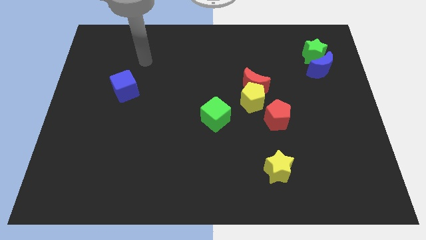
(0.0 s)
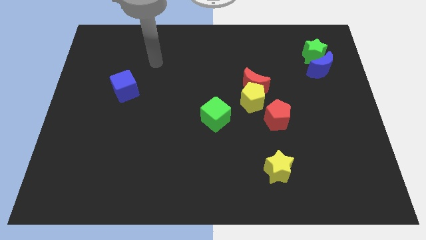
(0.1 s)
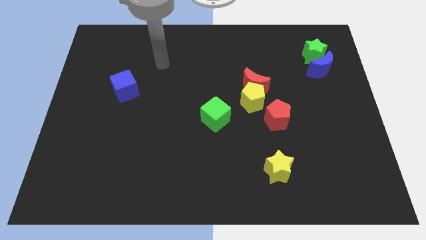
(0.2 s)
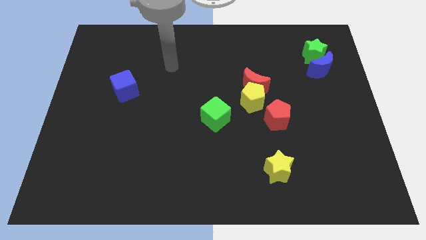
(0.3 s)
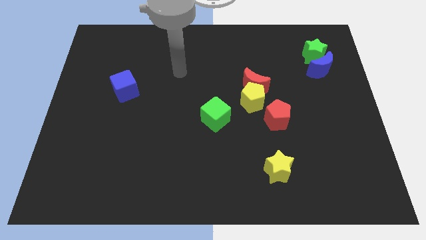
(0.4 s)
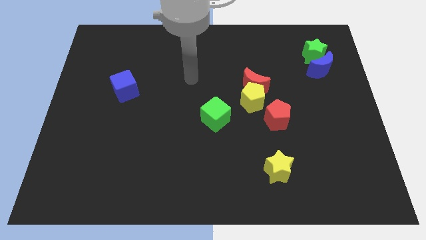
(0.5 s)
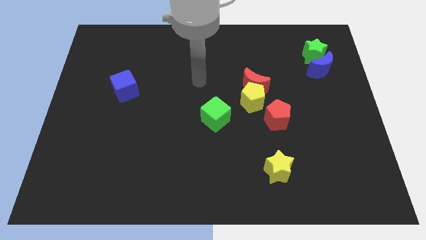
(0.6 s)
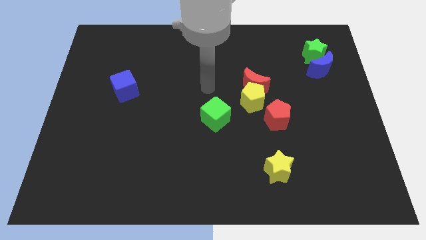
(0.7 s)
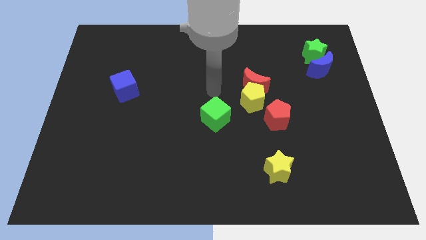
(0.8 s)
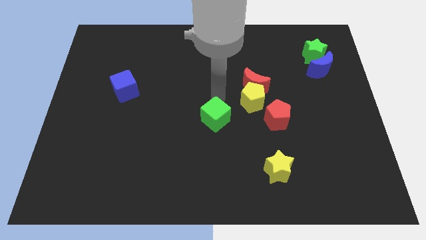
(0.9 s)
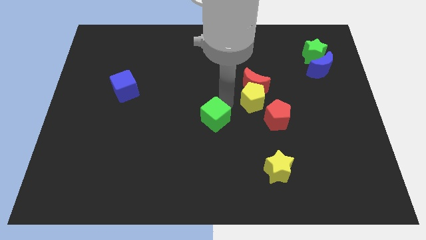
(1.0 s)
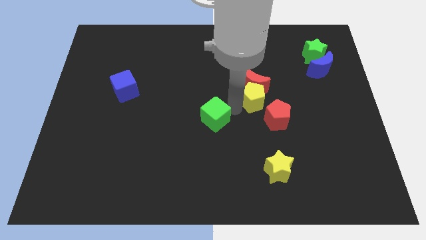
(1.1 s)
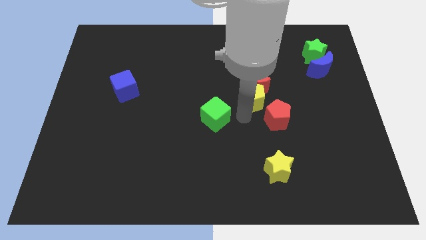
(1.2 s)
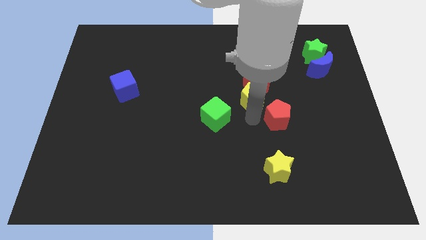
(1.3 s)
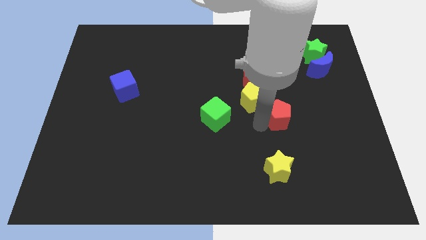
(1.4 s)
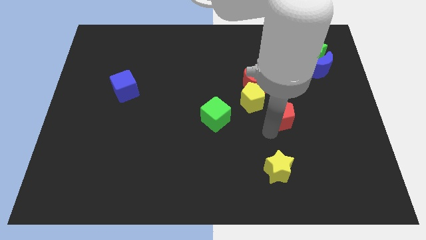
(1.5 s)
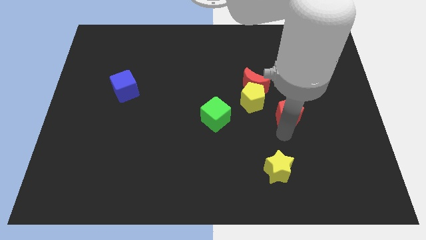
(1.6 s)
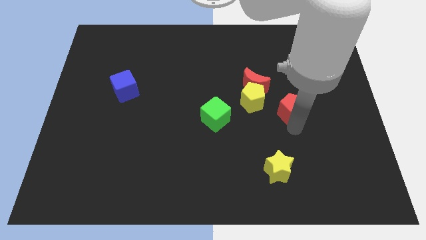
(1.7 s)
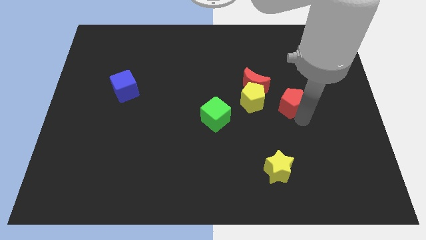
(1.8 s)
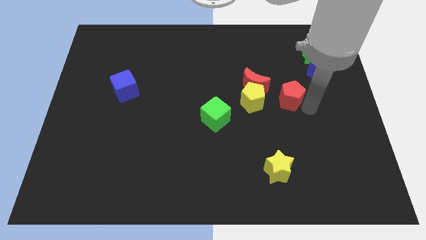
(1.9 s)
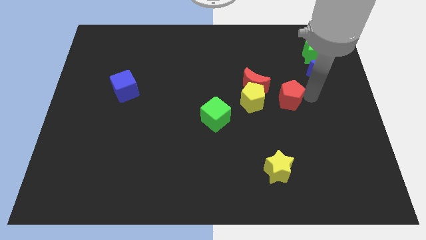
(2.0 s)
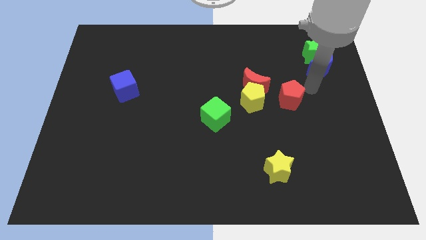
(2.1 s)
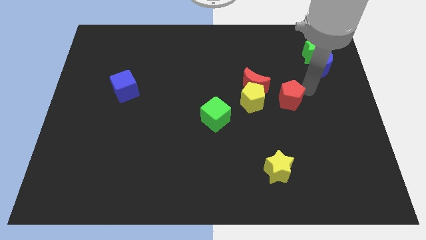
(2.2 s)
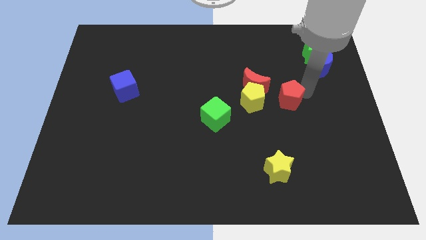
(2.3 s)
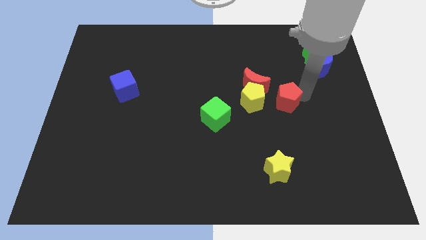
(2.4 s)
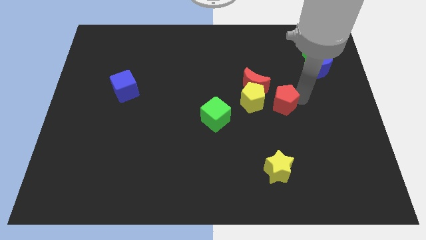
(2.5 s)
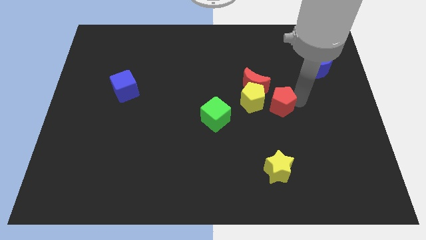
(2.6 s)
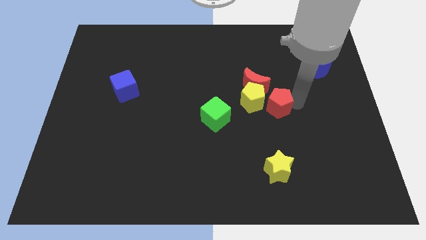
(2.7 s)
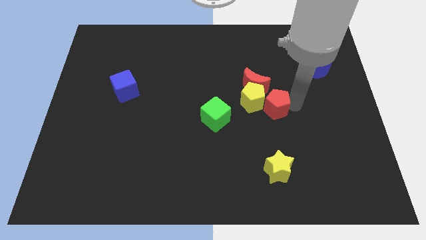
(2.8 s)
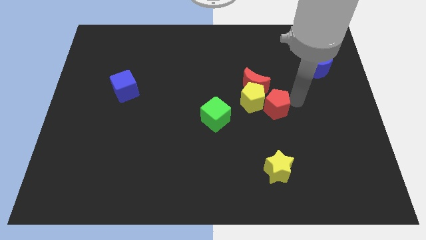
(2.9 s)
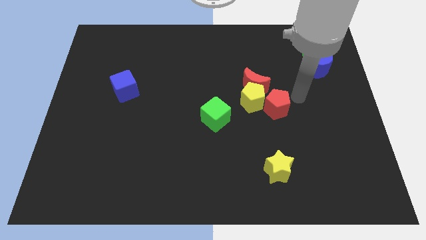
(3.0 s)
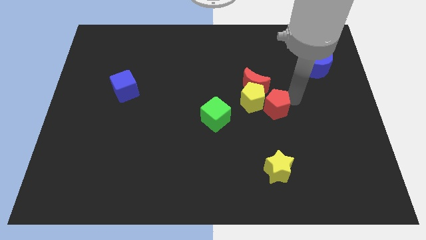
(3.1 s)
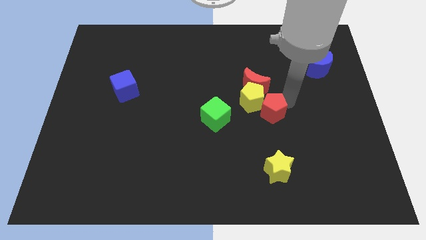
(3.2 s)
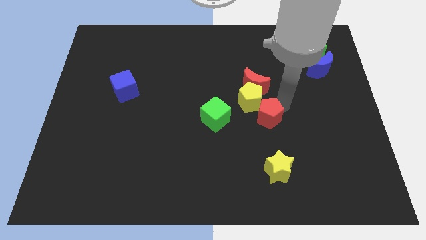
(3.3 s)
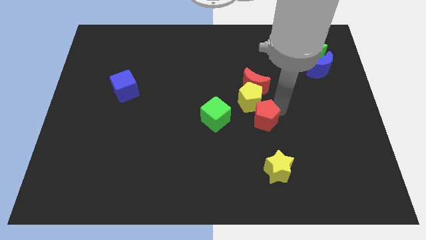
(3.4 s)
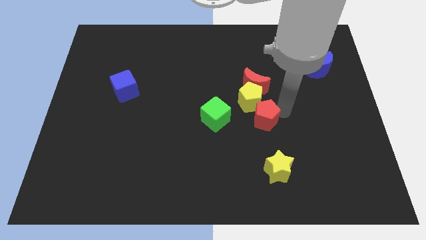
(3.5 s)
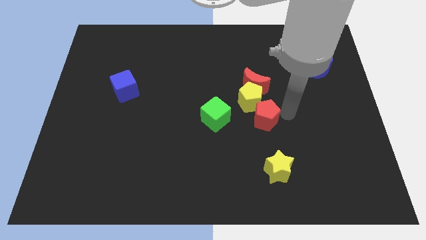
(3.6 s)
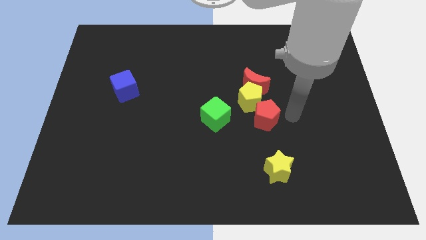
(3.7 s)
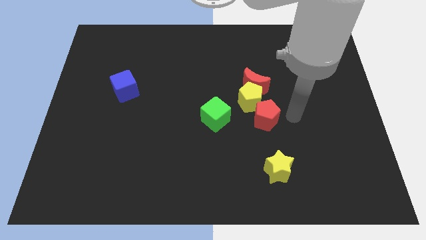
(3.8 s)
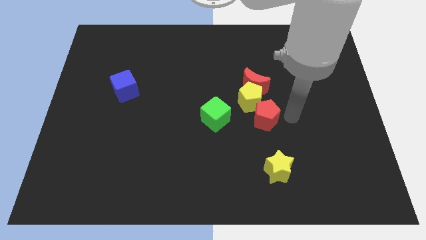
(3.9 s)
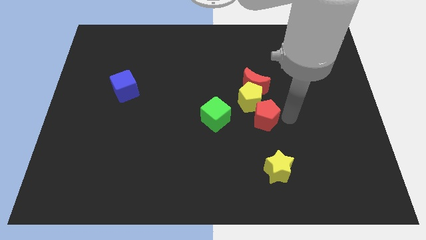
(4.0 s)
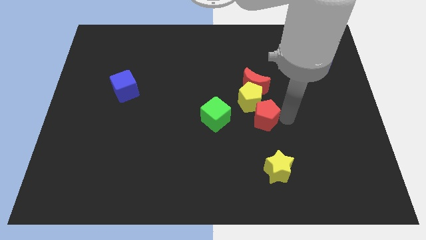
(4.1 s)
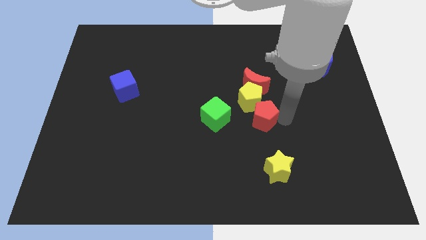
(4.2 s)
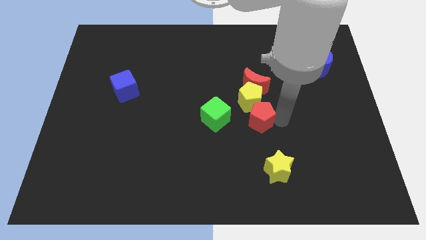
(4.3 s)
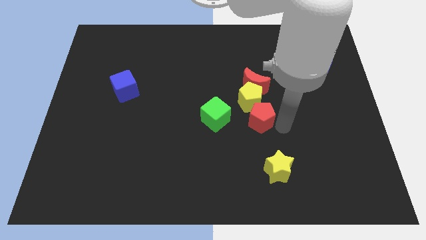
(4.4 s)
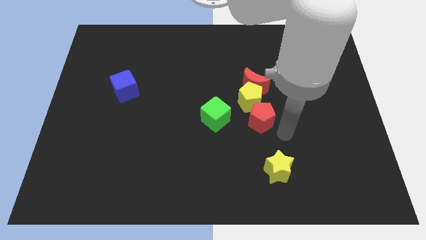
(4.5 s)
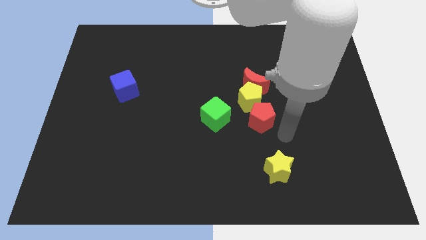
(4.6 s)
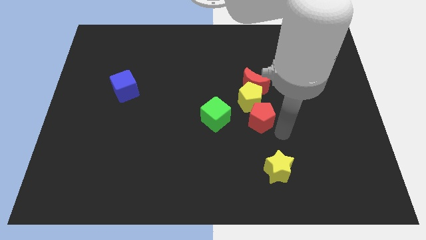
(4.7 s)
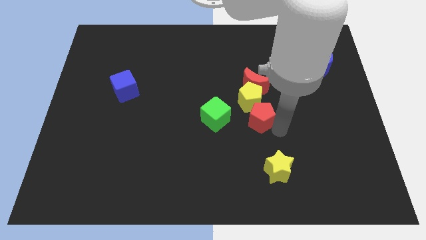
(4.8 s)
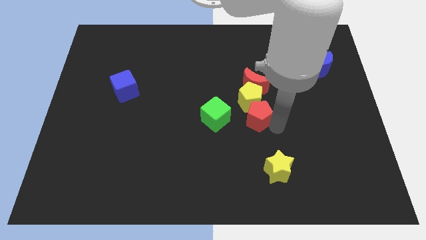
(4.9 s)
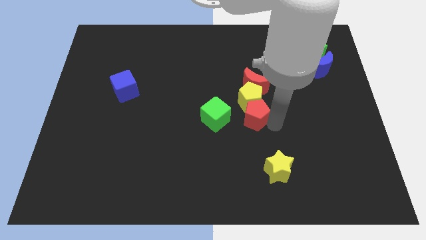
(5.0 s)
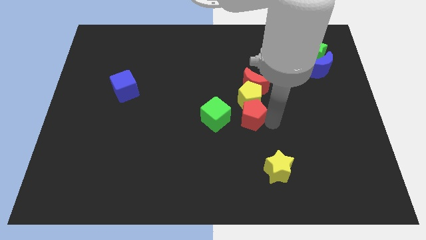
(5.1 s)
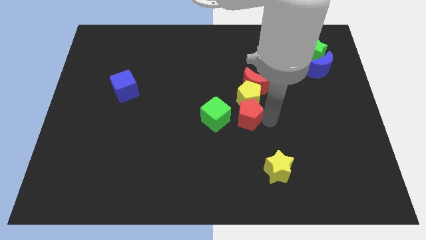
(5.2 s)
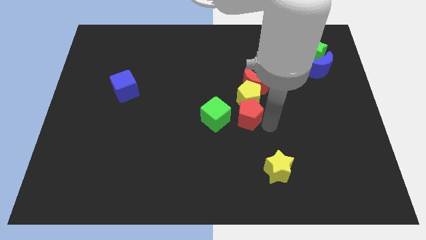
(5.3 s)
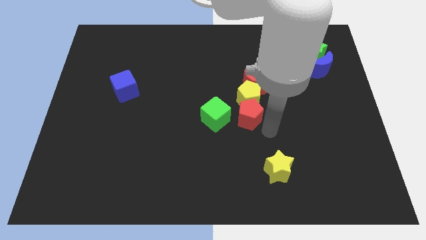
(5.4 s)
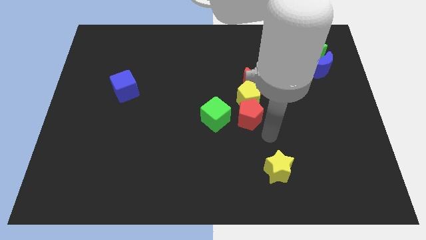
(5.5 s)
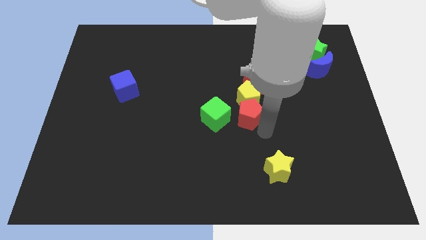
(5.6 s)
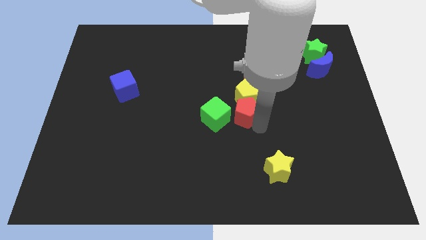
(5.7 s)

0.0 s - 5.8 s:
push the red pentagon to the bottom left side of the red moon
